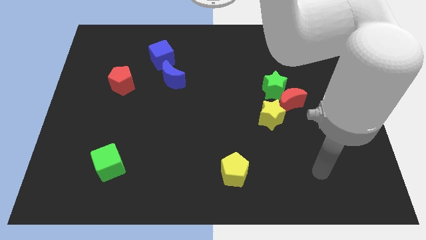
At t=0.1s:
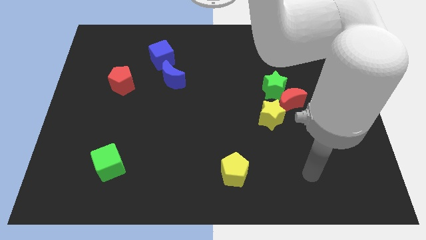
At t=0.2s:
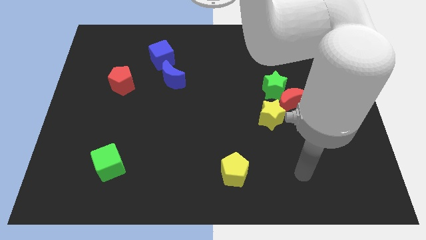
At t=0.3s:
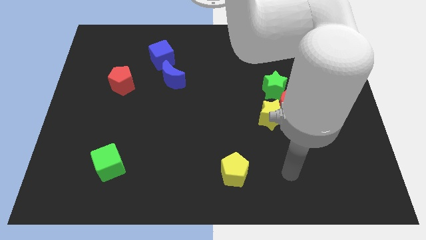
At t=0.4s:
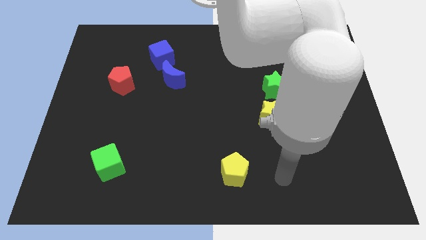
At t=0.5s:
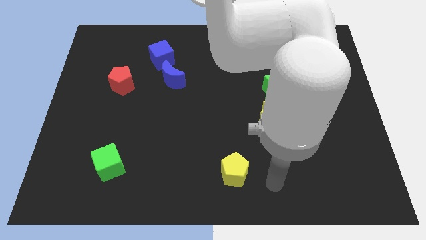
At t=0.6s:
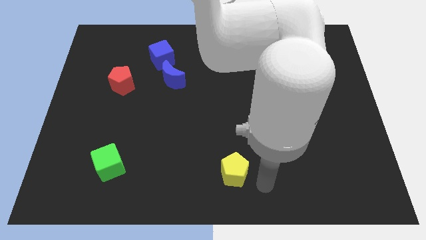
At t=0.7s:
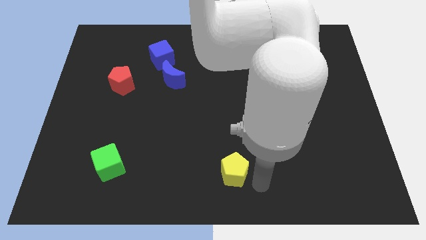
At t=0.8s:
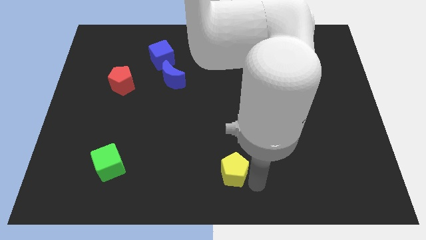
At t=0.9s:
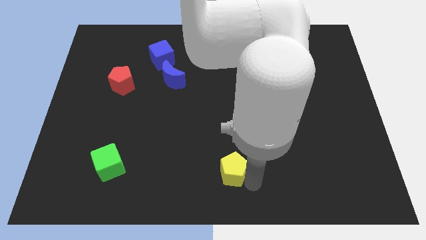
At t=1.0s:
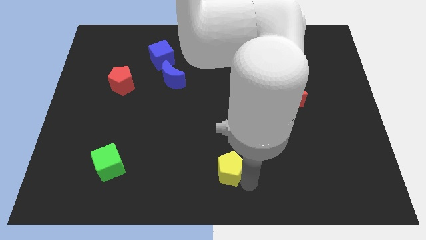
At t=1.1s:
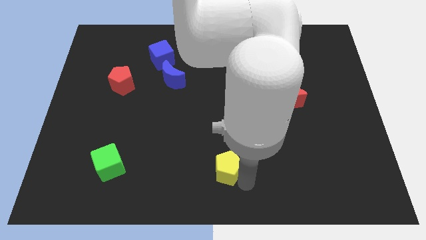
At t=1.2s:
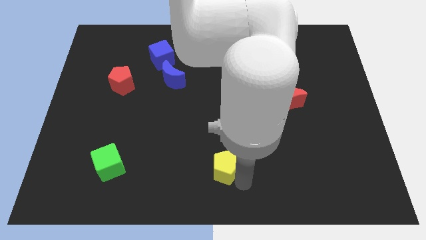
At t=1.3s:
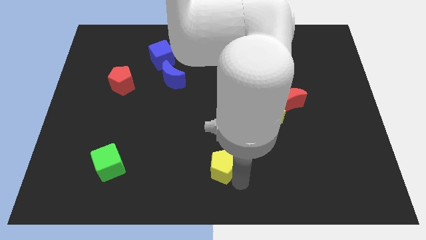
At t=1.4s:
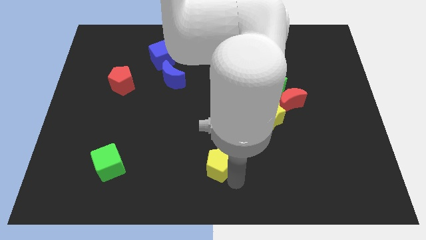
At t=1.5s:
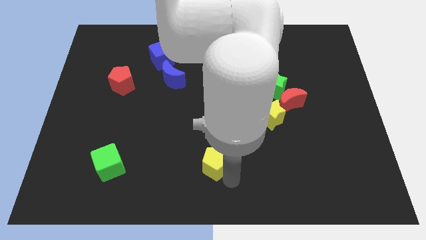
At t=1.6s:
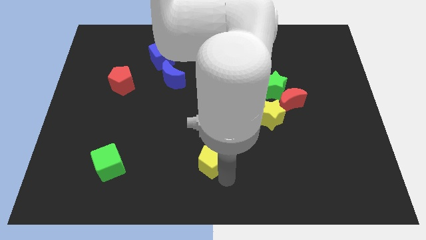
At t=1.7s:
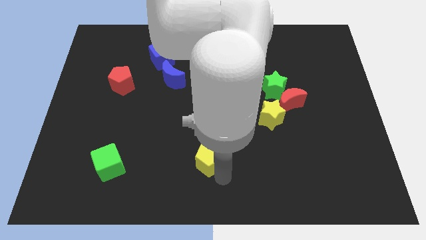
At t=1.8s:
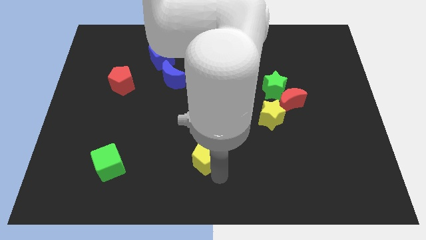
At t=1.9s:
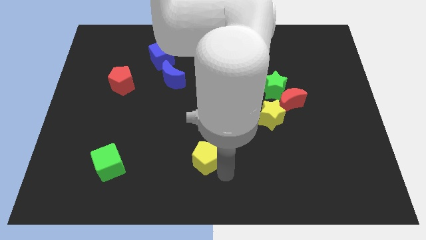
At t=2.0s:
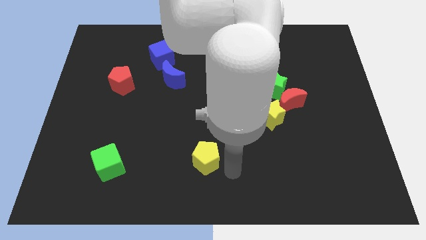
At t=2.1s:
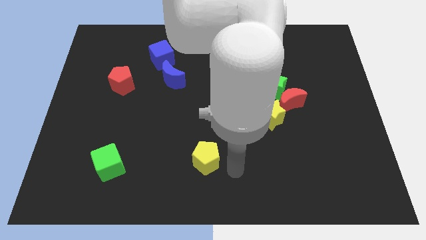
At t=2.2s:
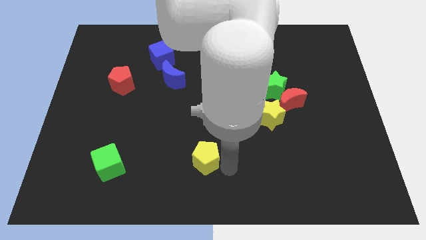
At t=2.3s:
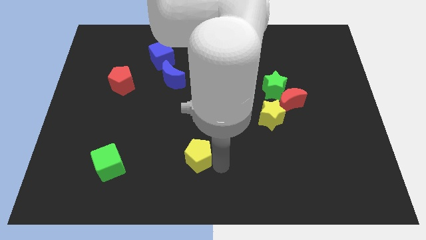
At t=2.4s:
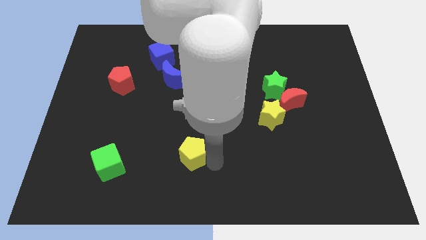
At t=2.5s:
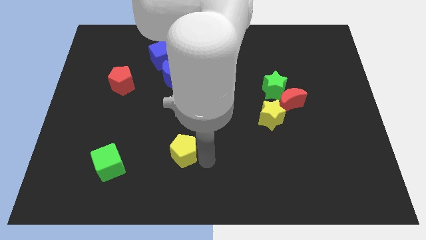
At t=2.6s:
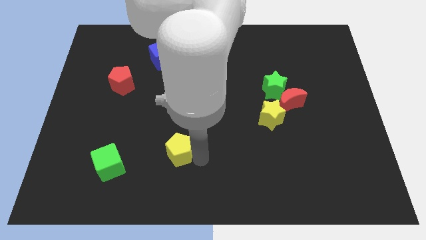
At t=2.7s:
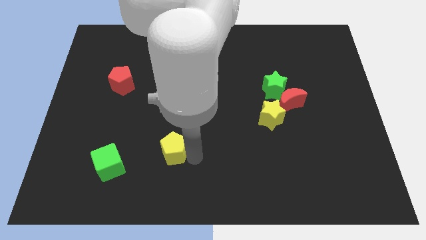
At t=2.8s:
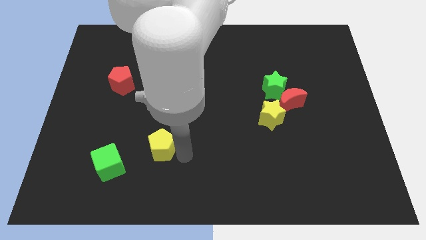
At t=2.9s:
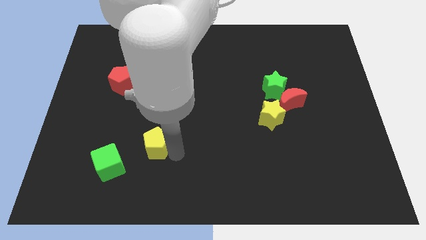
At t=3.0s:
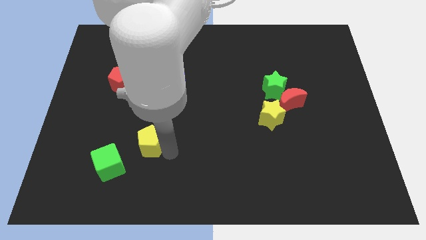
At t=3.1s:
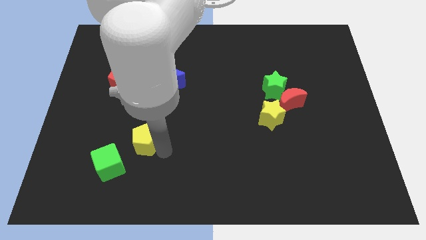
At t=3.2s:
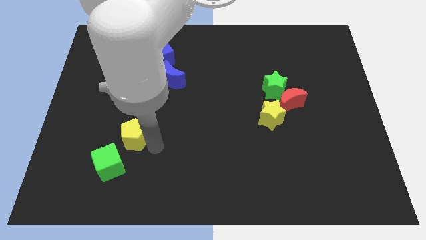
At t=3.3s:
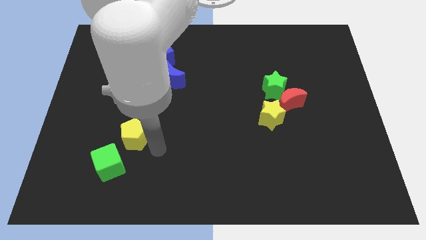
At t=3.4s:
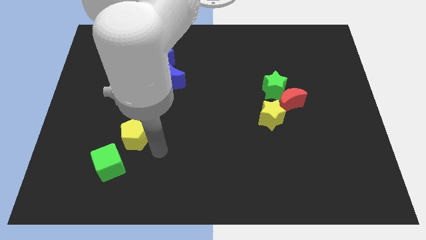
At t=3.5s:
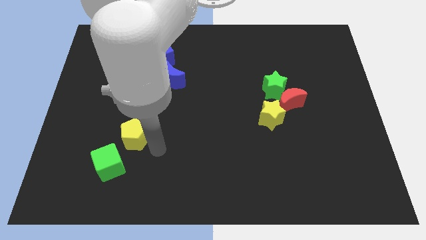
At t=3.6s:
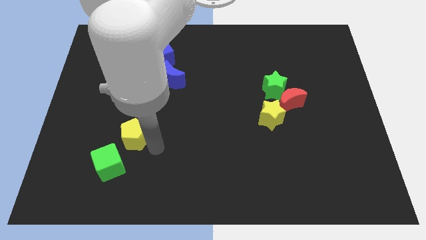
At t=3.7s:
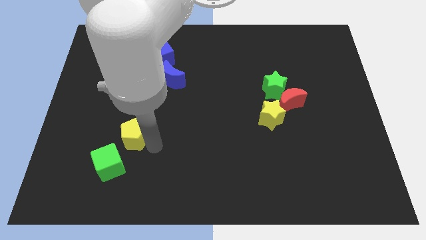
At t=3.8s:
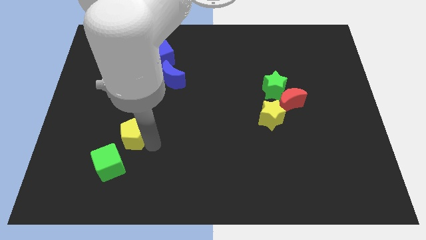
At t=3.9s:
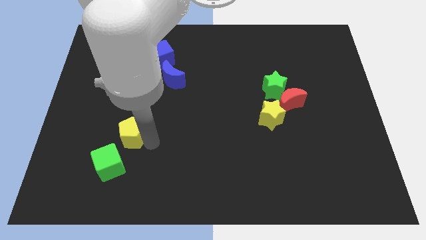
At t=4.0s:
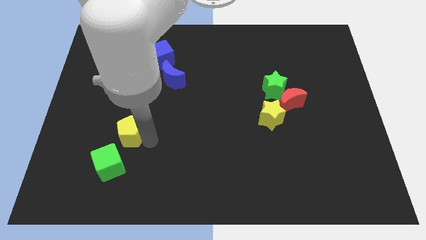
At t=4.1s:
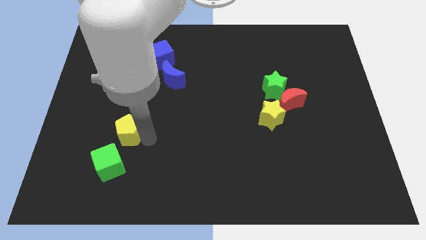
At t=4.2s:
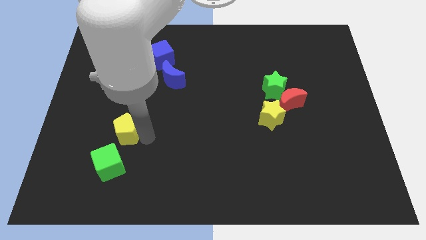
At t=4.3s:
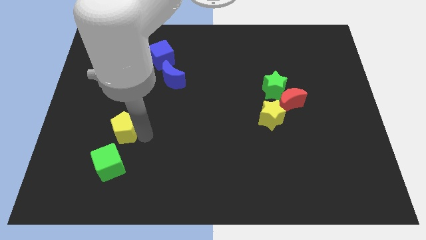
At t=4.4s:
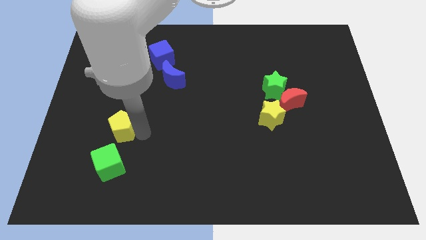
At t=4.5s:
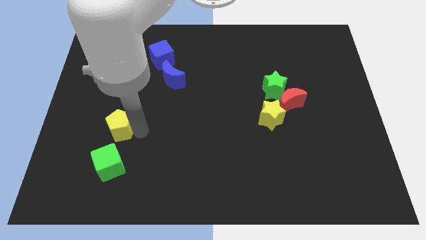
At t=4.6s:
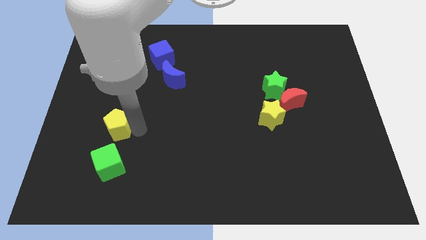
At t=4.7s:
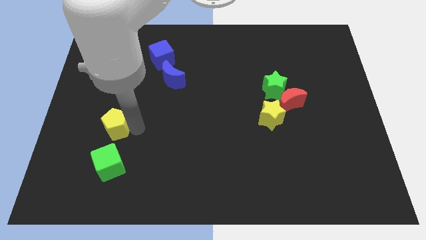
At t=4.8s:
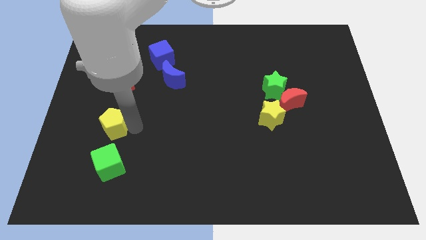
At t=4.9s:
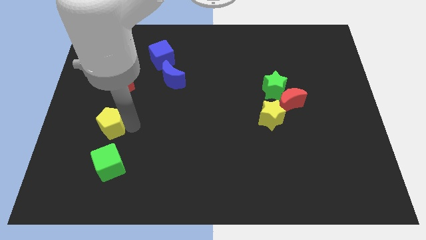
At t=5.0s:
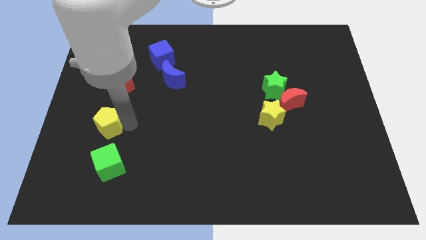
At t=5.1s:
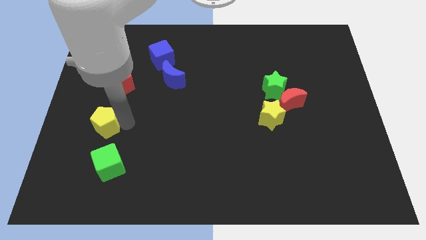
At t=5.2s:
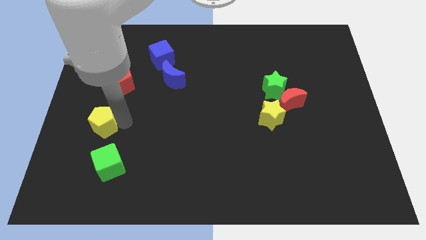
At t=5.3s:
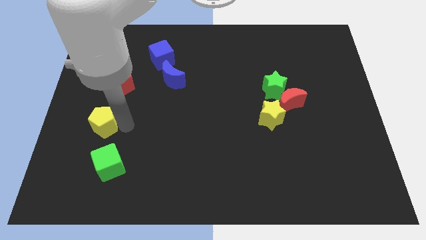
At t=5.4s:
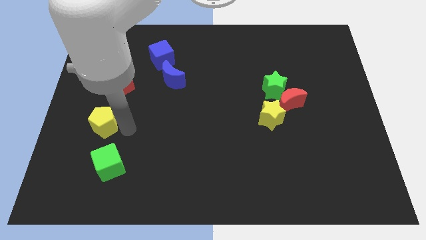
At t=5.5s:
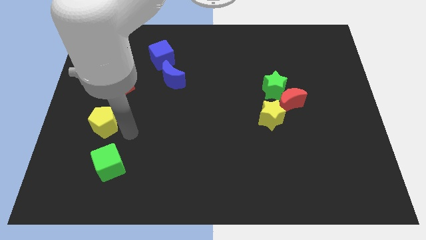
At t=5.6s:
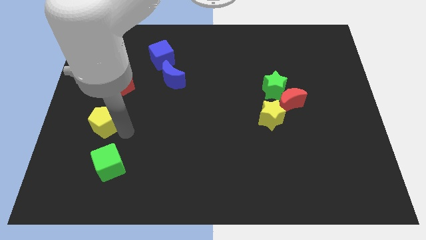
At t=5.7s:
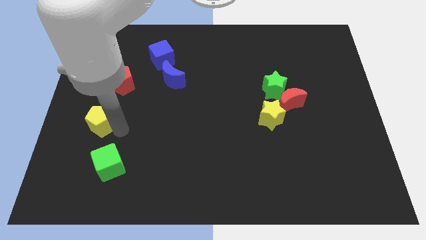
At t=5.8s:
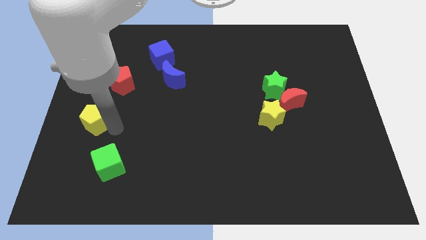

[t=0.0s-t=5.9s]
slide the yellow pentagon to the center left

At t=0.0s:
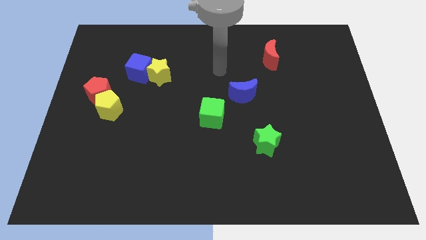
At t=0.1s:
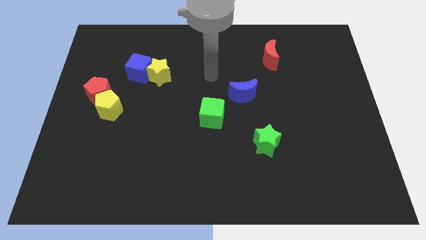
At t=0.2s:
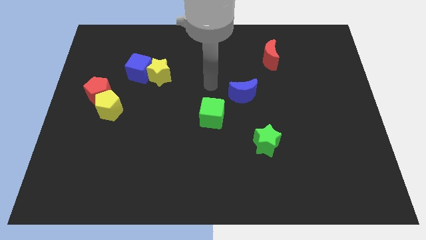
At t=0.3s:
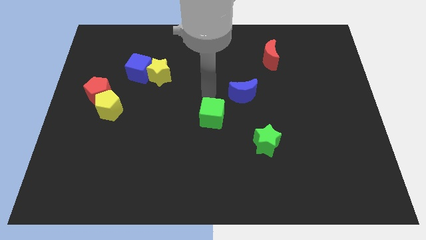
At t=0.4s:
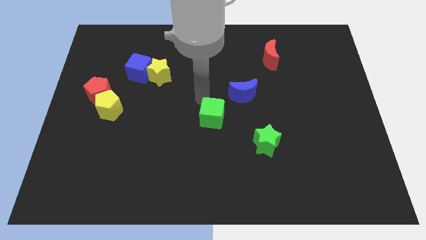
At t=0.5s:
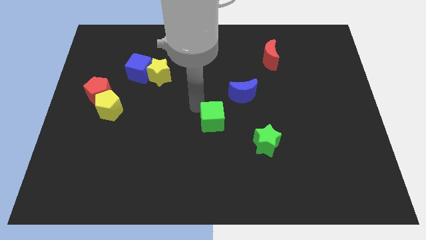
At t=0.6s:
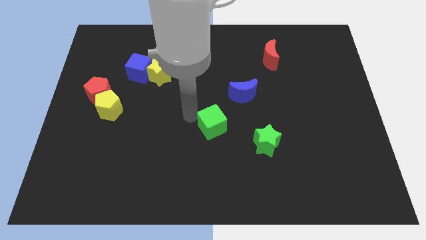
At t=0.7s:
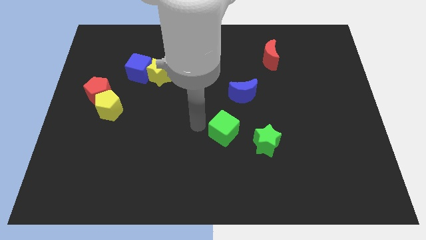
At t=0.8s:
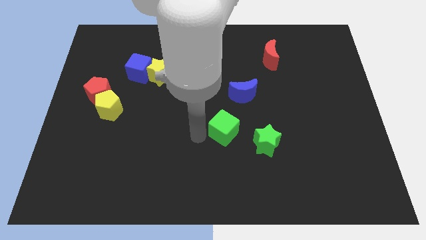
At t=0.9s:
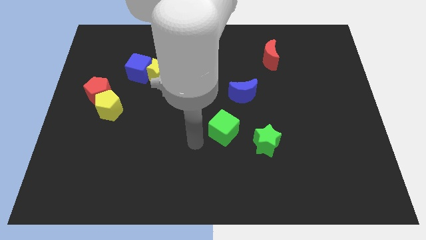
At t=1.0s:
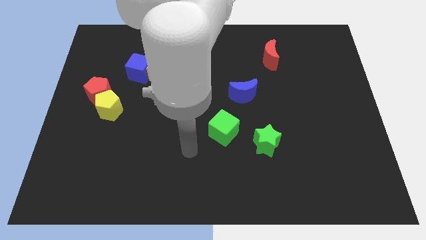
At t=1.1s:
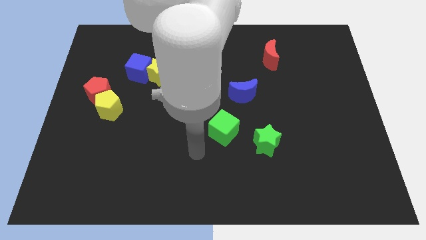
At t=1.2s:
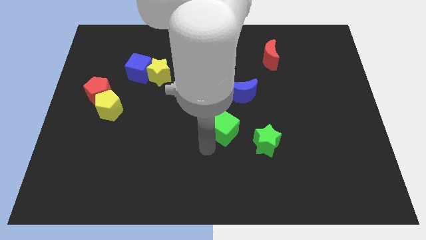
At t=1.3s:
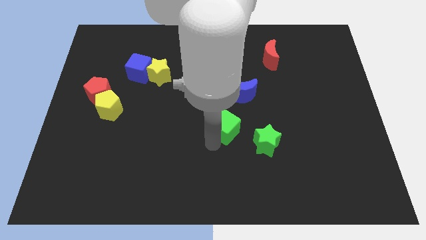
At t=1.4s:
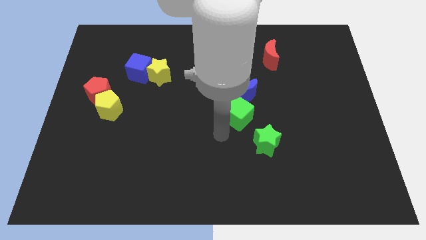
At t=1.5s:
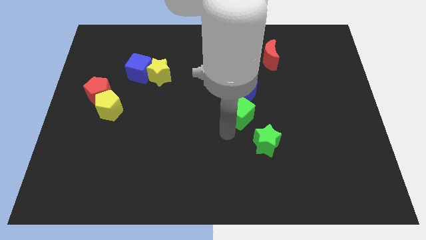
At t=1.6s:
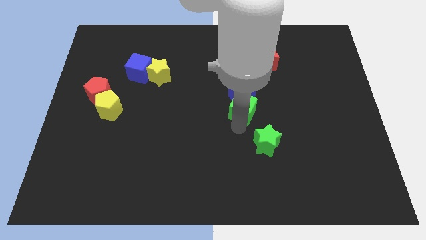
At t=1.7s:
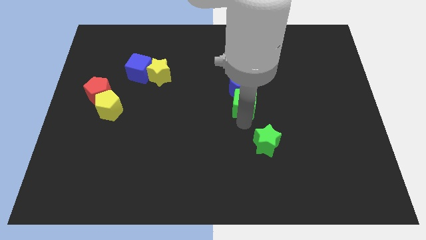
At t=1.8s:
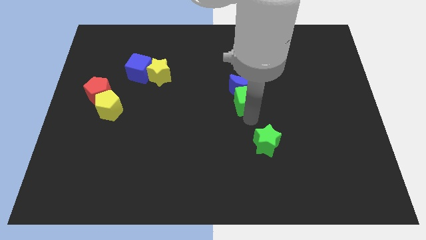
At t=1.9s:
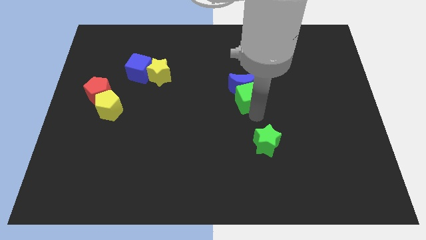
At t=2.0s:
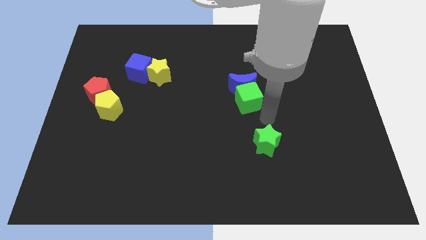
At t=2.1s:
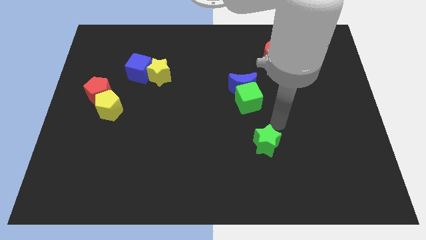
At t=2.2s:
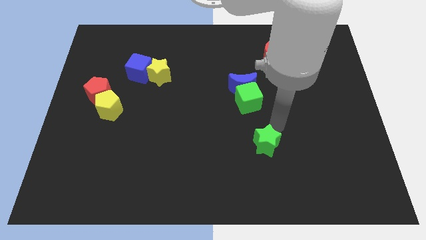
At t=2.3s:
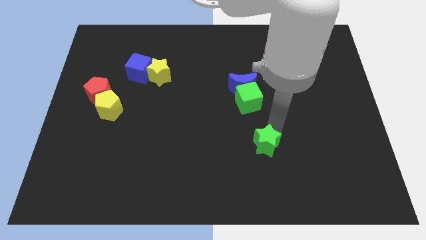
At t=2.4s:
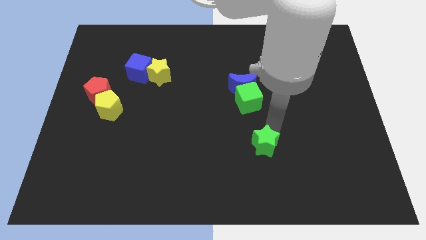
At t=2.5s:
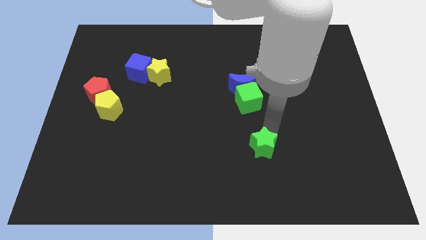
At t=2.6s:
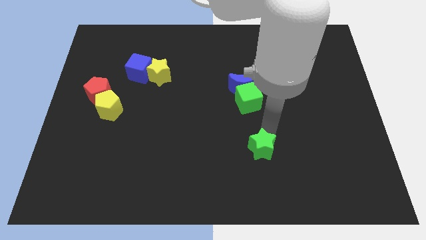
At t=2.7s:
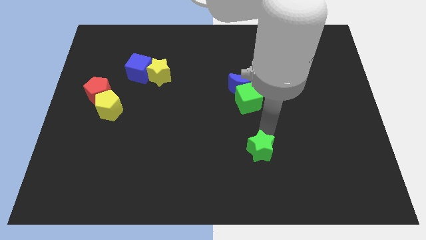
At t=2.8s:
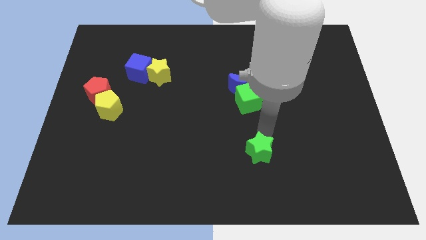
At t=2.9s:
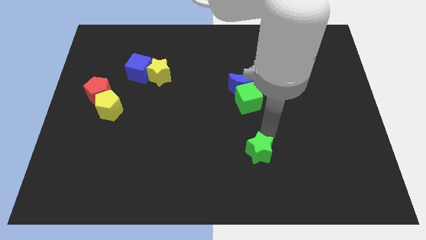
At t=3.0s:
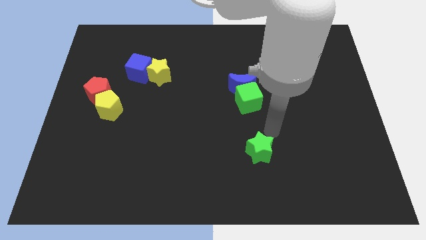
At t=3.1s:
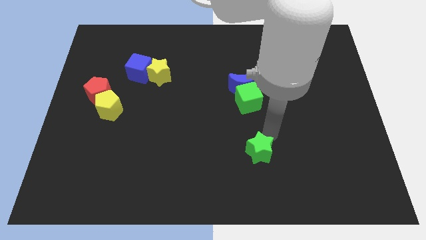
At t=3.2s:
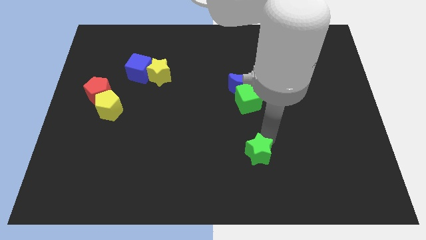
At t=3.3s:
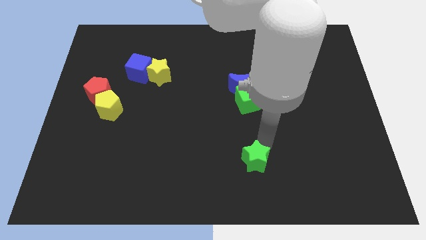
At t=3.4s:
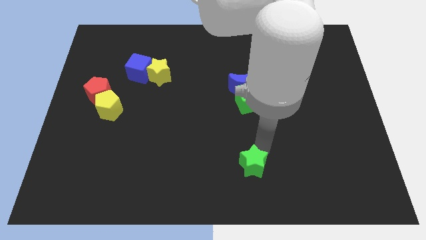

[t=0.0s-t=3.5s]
push the green star to the bottom
